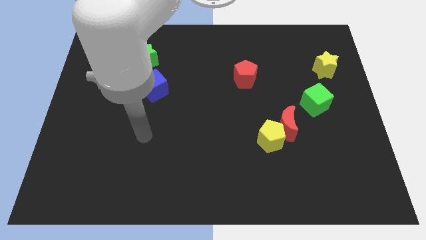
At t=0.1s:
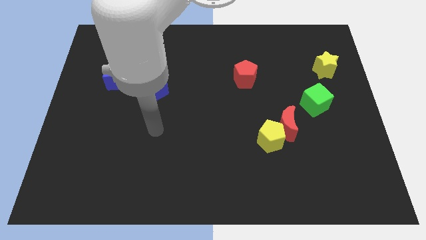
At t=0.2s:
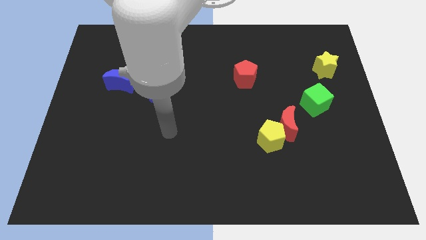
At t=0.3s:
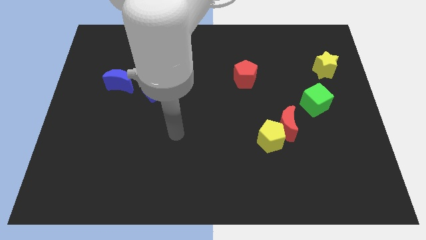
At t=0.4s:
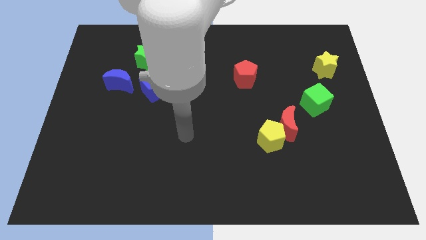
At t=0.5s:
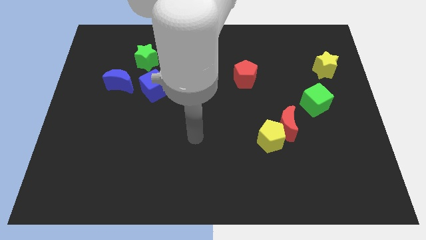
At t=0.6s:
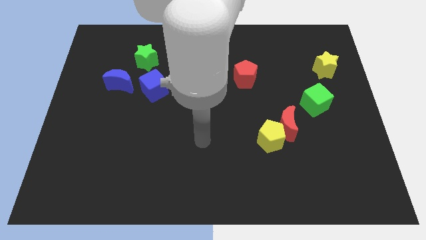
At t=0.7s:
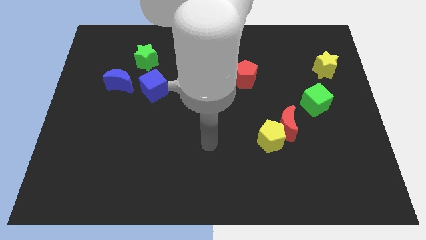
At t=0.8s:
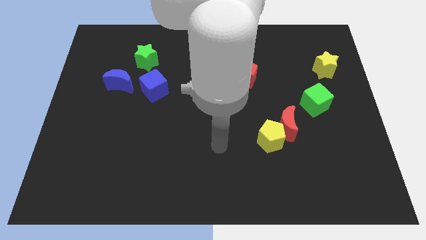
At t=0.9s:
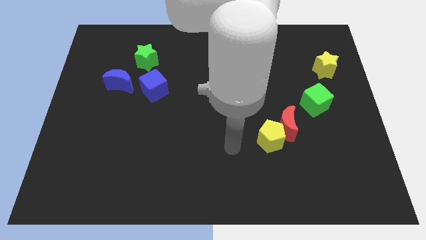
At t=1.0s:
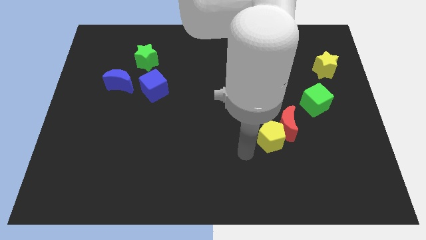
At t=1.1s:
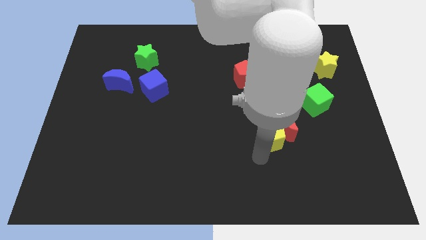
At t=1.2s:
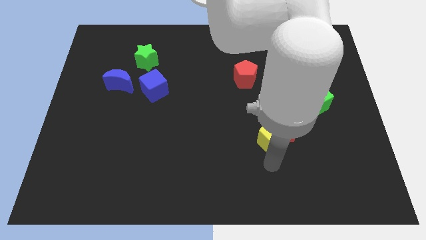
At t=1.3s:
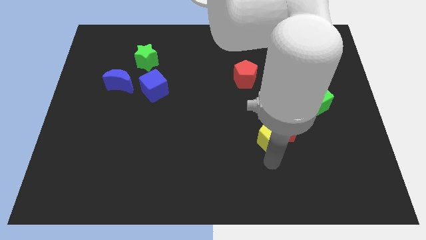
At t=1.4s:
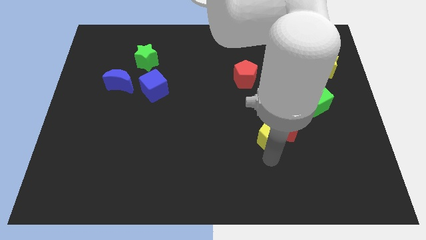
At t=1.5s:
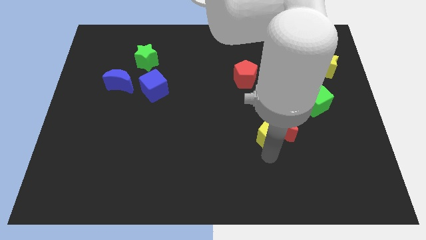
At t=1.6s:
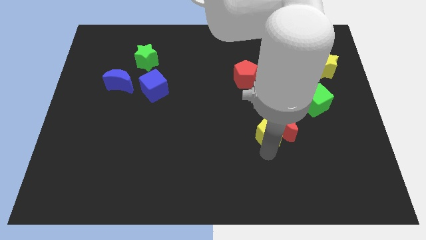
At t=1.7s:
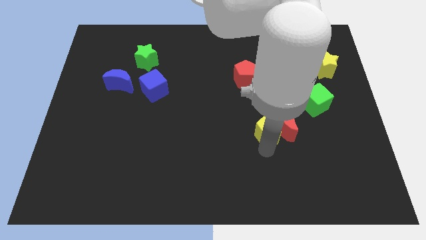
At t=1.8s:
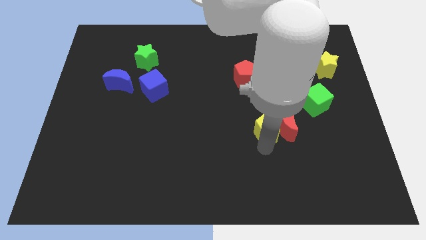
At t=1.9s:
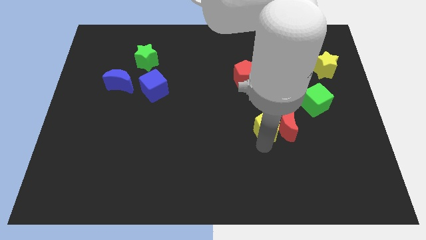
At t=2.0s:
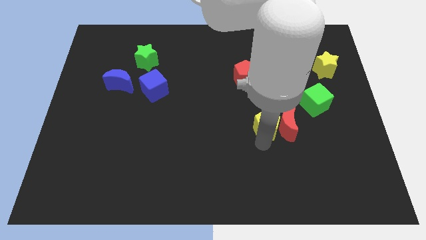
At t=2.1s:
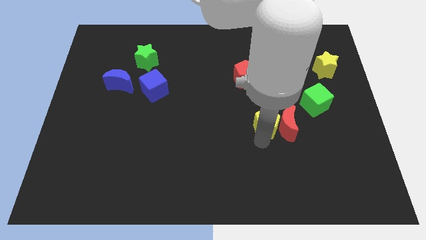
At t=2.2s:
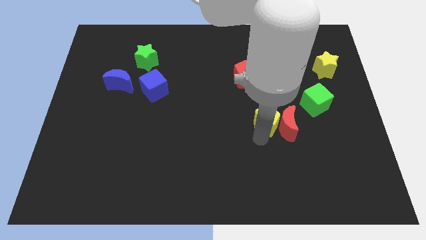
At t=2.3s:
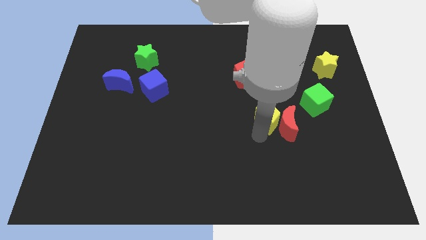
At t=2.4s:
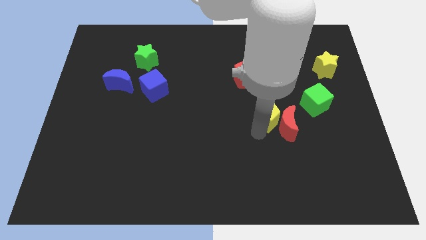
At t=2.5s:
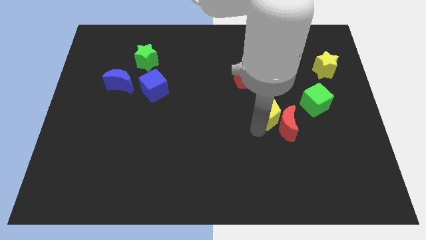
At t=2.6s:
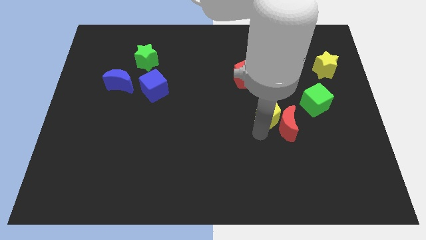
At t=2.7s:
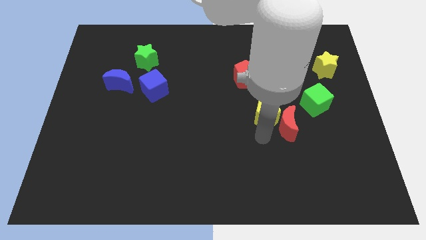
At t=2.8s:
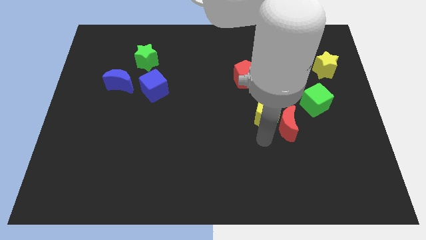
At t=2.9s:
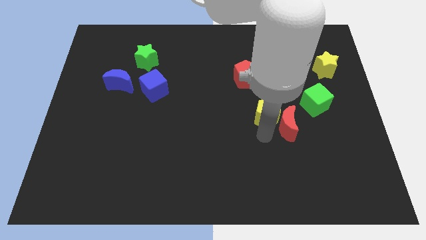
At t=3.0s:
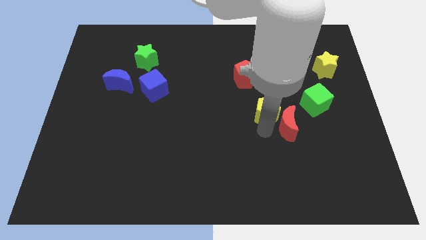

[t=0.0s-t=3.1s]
push the yellow pentagon up somewhat

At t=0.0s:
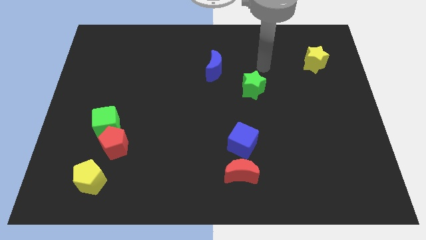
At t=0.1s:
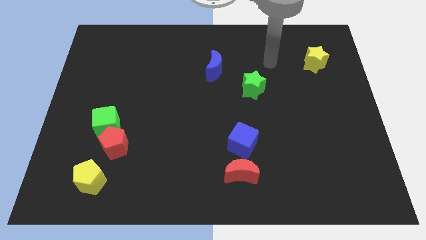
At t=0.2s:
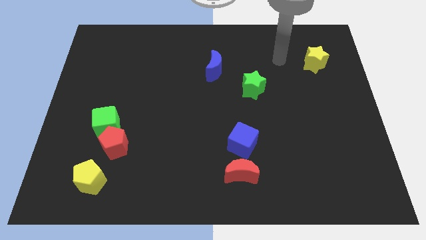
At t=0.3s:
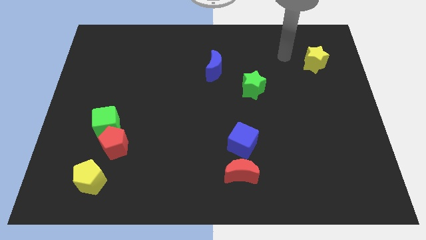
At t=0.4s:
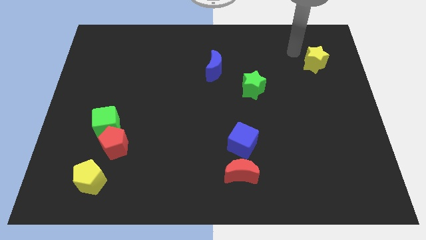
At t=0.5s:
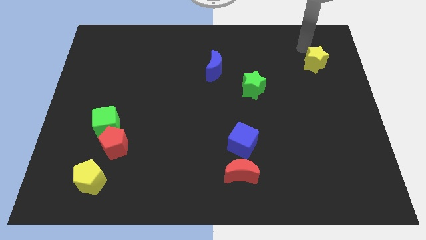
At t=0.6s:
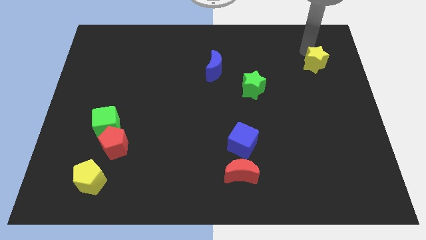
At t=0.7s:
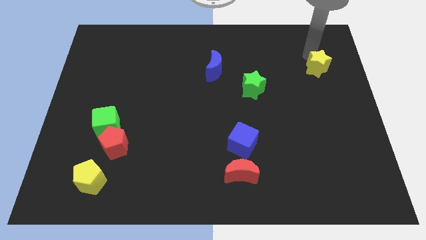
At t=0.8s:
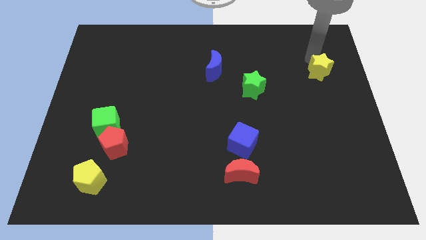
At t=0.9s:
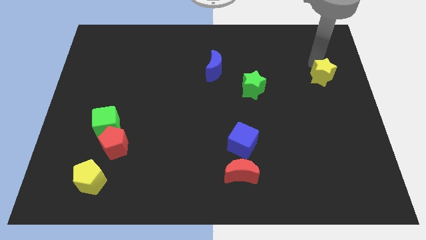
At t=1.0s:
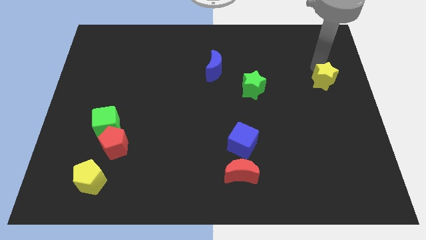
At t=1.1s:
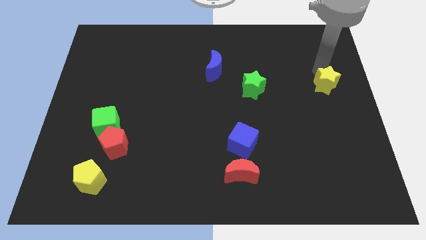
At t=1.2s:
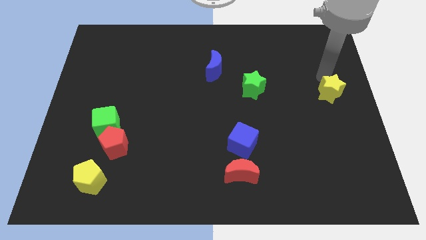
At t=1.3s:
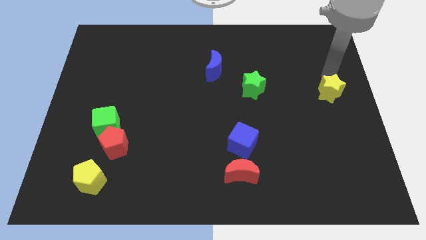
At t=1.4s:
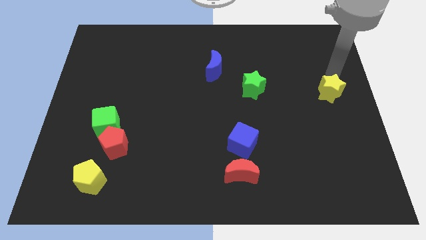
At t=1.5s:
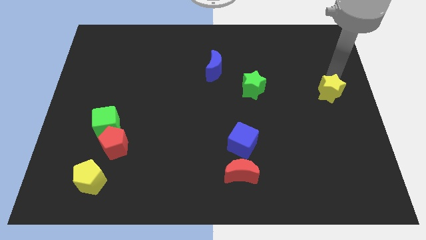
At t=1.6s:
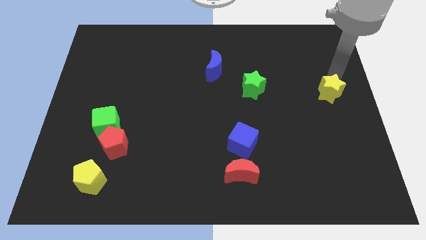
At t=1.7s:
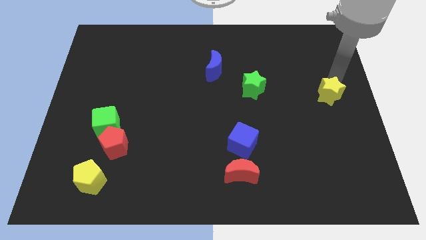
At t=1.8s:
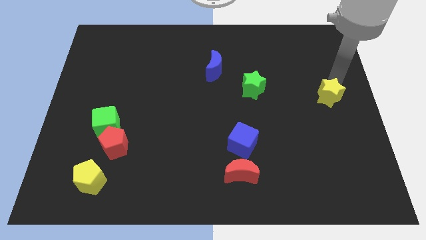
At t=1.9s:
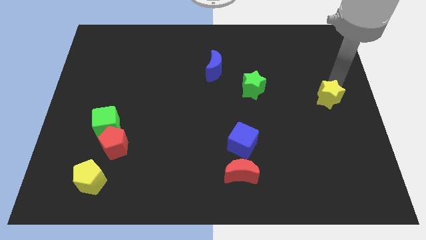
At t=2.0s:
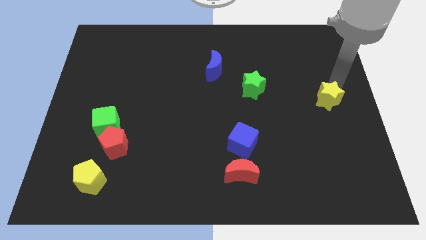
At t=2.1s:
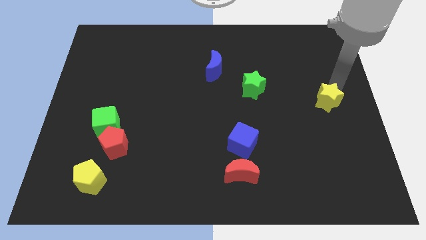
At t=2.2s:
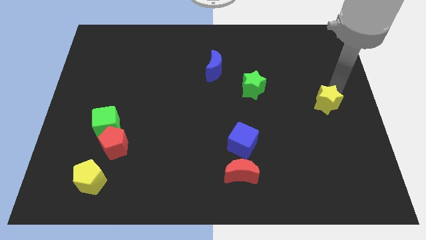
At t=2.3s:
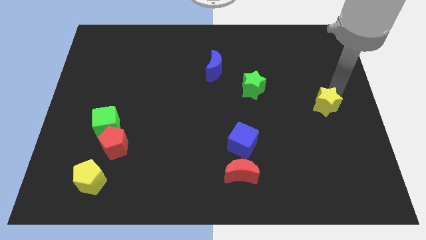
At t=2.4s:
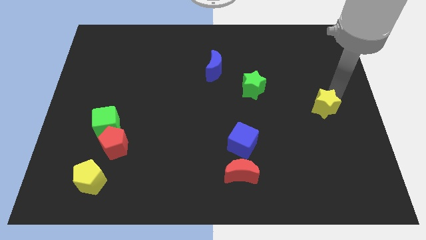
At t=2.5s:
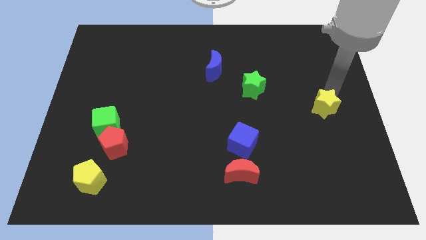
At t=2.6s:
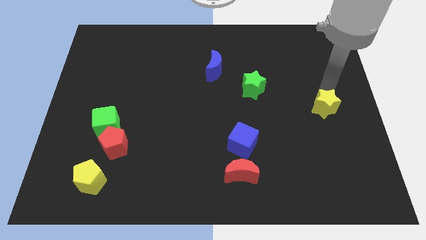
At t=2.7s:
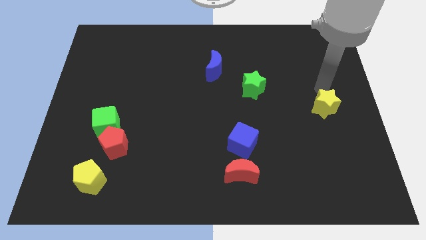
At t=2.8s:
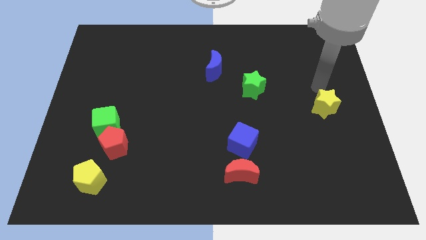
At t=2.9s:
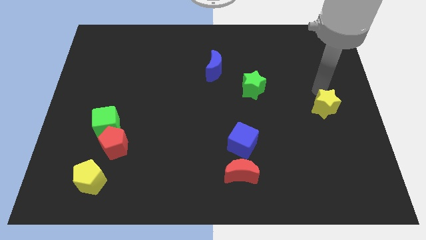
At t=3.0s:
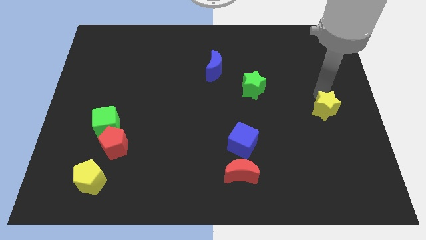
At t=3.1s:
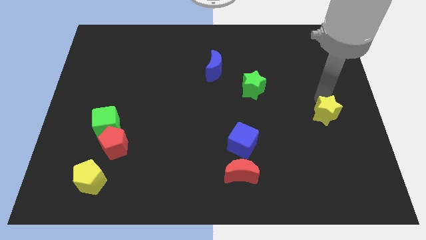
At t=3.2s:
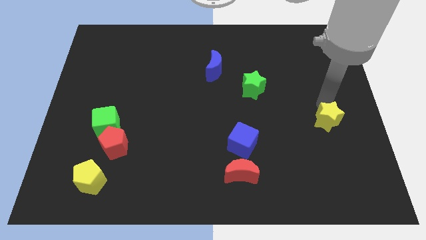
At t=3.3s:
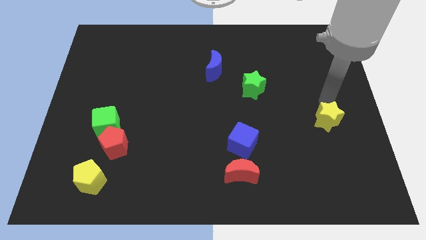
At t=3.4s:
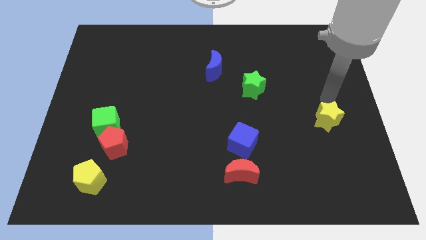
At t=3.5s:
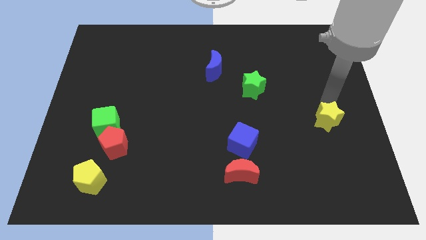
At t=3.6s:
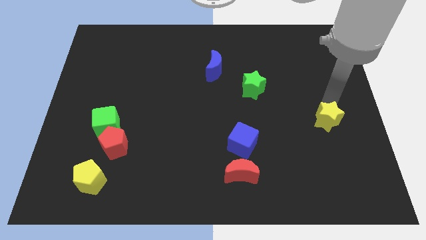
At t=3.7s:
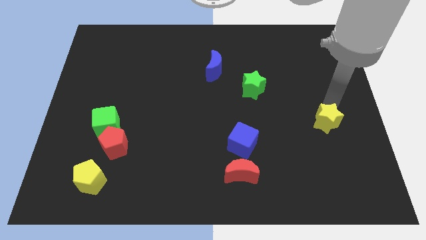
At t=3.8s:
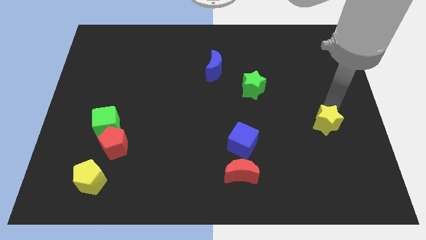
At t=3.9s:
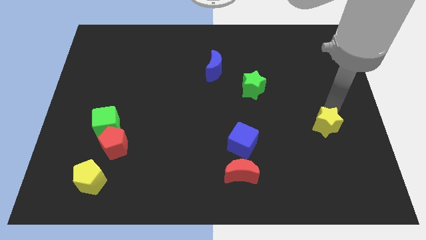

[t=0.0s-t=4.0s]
move the yellow star down

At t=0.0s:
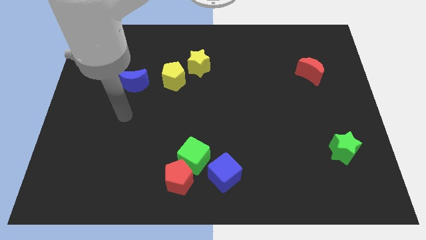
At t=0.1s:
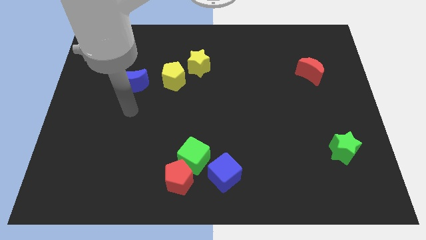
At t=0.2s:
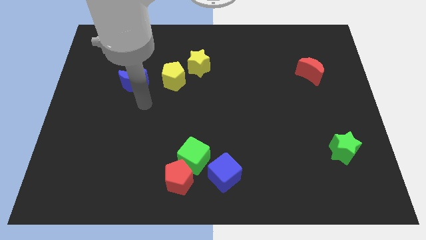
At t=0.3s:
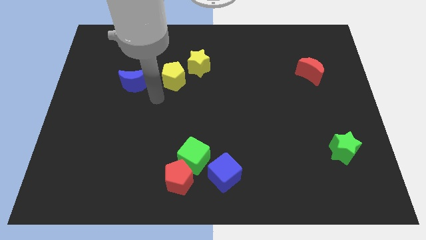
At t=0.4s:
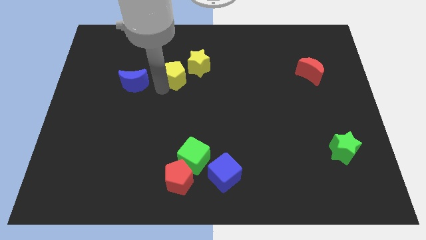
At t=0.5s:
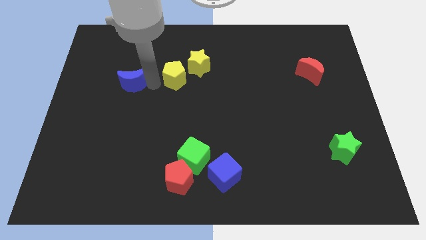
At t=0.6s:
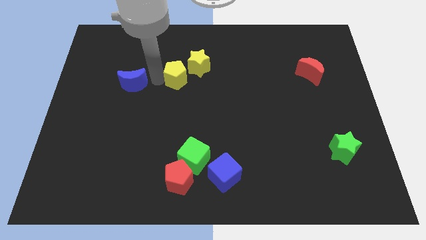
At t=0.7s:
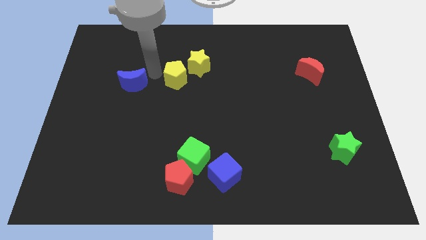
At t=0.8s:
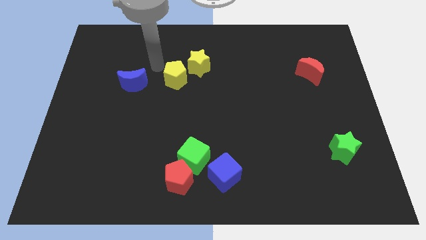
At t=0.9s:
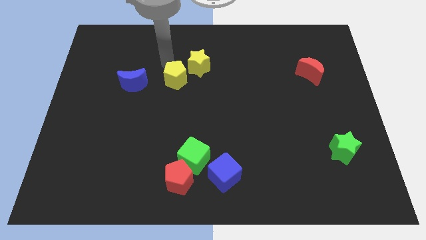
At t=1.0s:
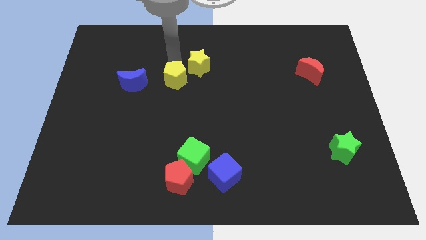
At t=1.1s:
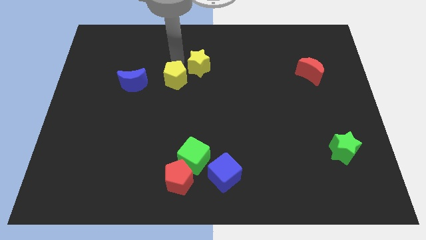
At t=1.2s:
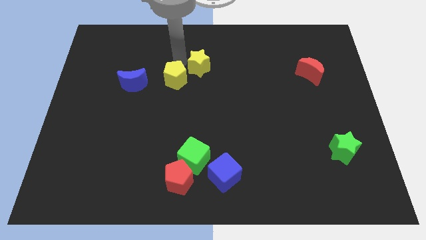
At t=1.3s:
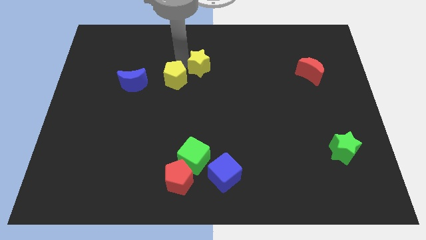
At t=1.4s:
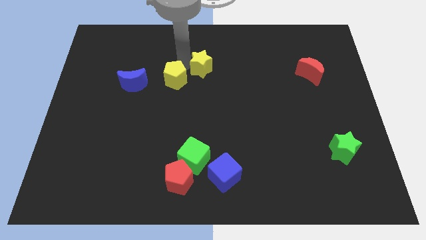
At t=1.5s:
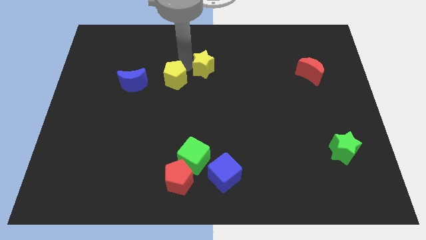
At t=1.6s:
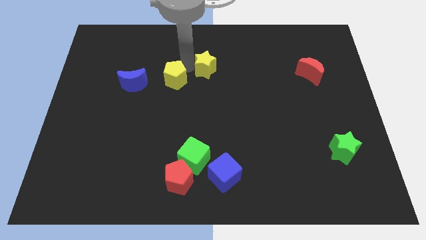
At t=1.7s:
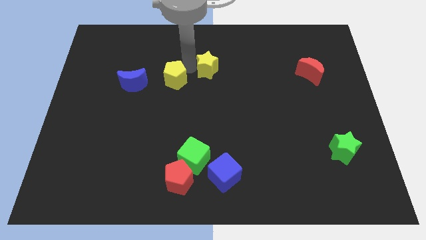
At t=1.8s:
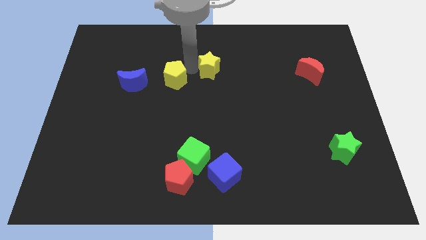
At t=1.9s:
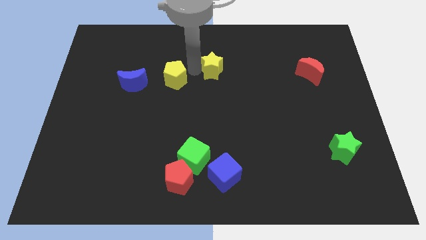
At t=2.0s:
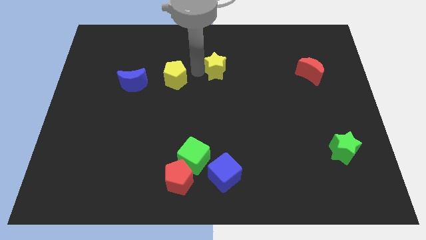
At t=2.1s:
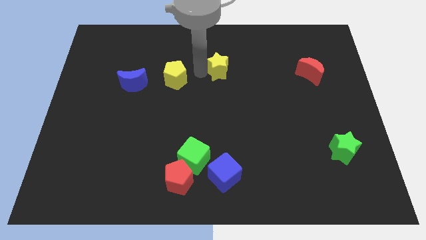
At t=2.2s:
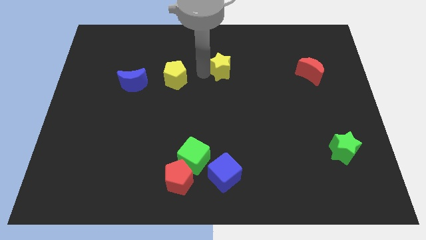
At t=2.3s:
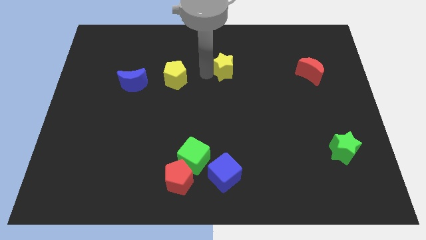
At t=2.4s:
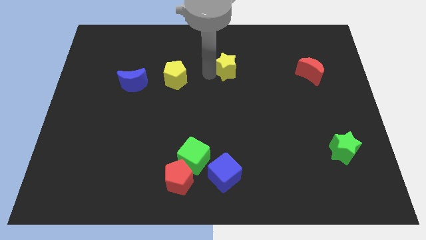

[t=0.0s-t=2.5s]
move the yellow star somewhat to the right
